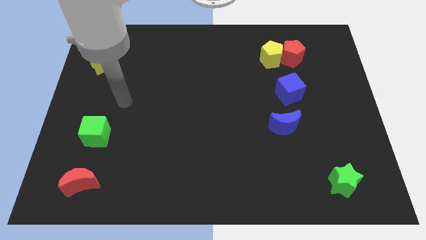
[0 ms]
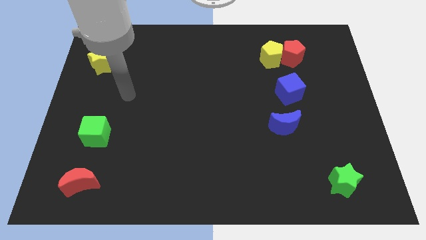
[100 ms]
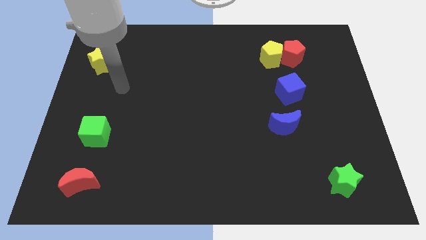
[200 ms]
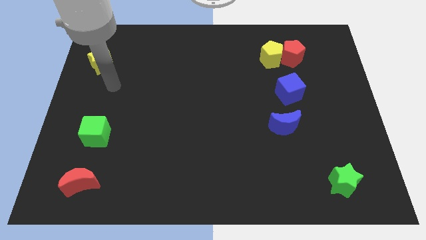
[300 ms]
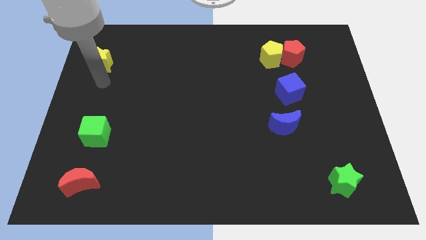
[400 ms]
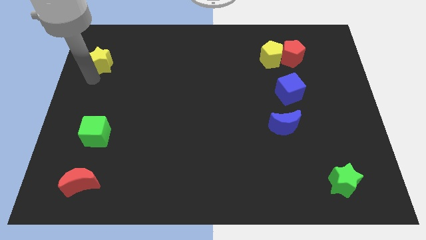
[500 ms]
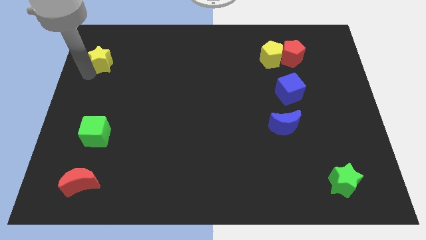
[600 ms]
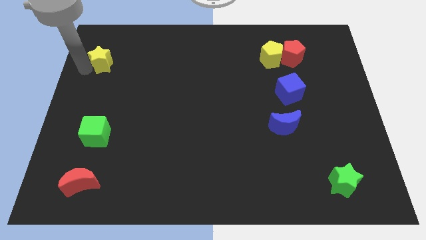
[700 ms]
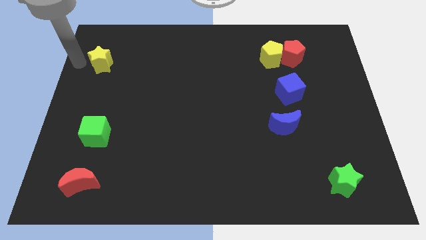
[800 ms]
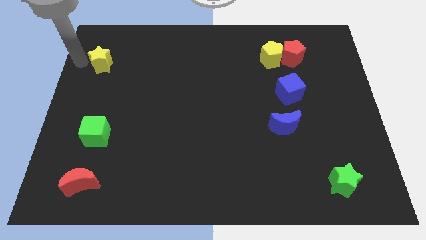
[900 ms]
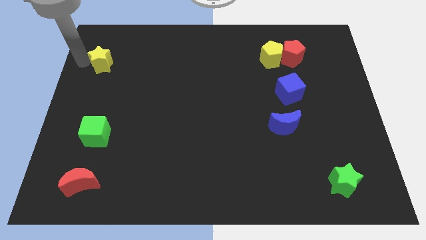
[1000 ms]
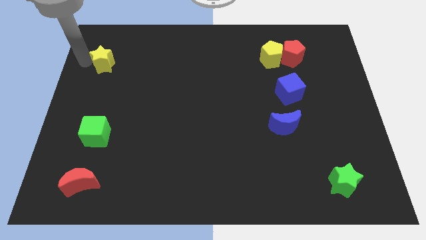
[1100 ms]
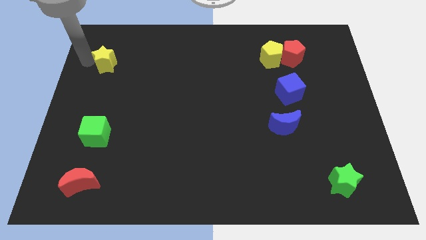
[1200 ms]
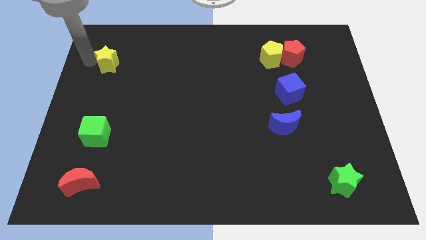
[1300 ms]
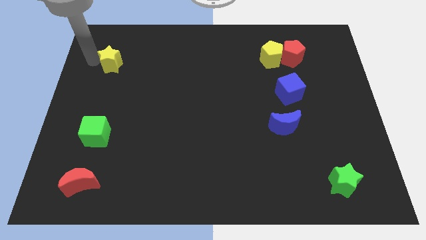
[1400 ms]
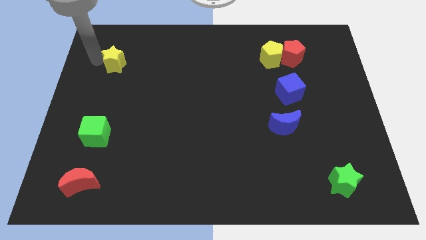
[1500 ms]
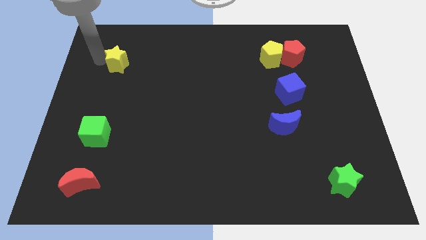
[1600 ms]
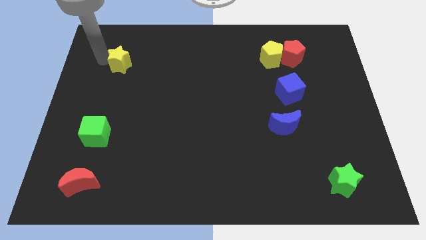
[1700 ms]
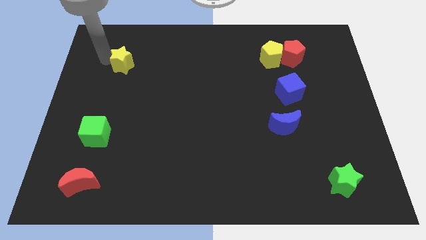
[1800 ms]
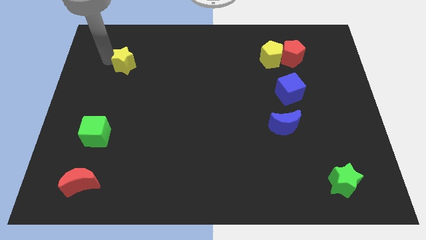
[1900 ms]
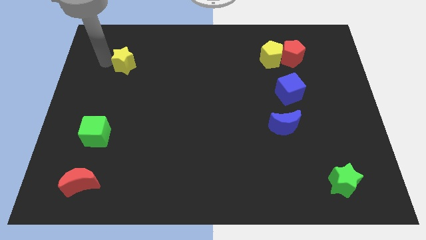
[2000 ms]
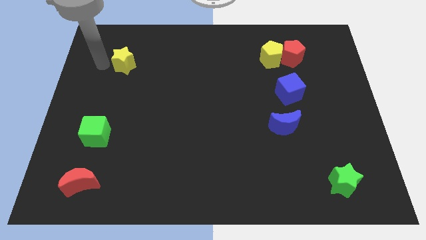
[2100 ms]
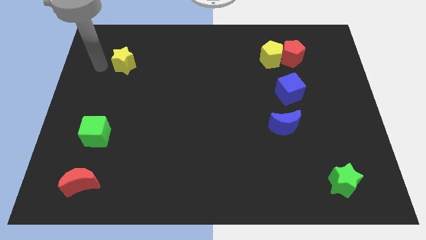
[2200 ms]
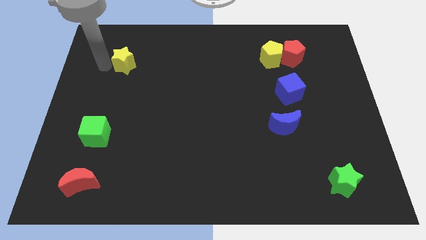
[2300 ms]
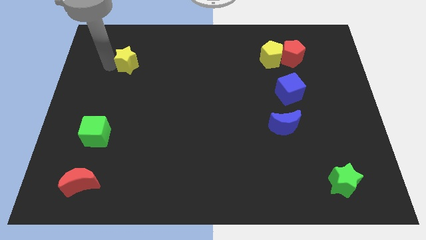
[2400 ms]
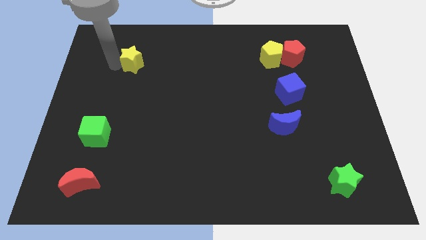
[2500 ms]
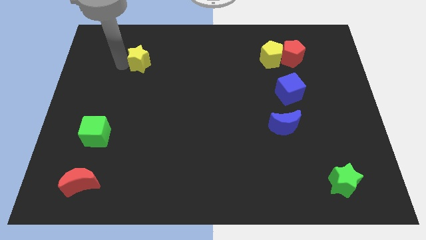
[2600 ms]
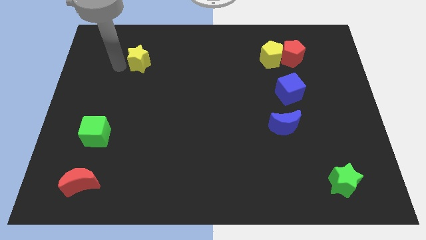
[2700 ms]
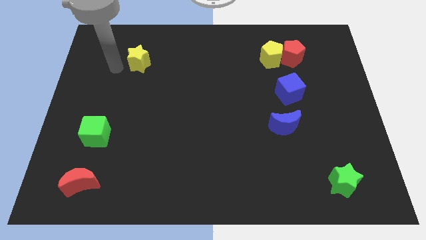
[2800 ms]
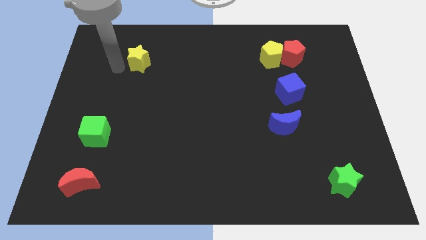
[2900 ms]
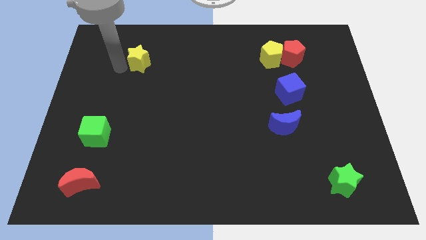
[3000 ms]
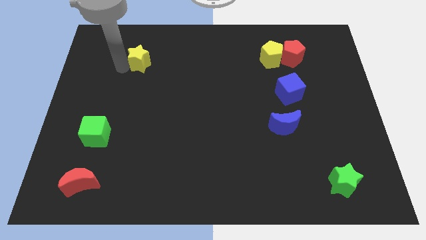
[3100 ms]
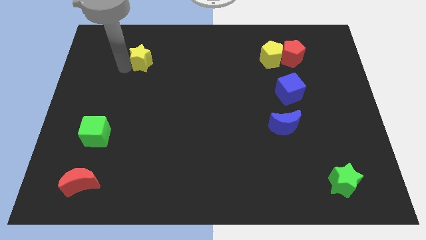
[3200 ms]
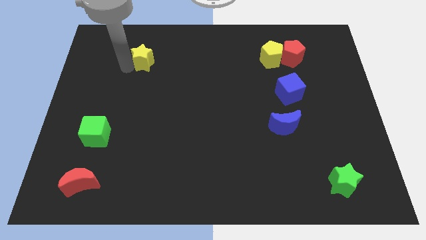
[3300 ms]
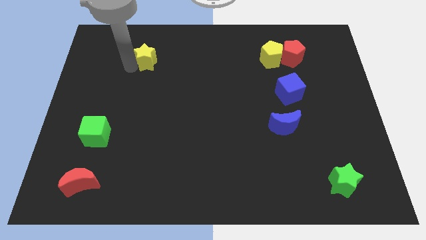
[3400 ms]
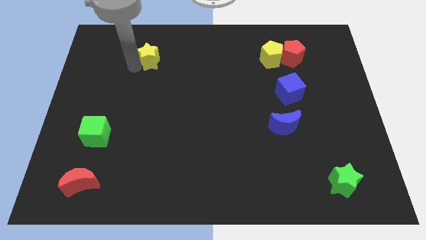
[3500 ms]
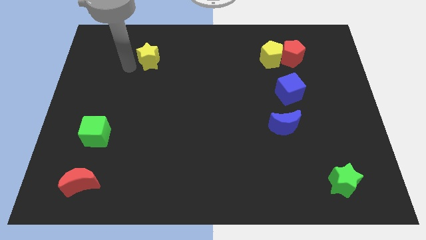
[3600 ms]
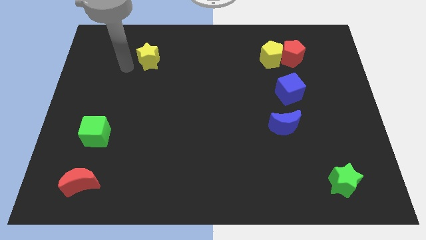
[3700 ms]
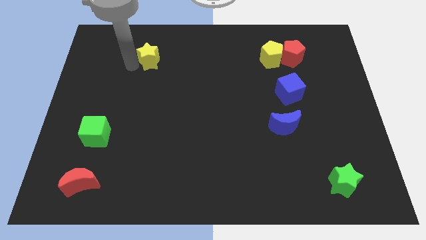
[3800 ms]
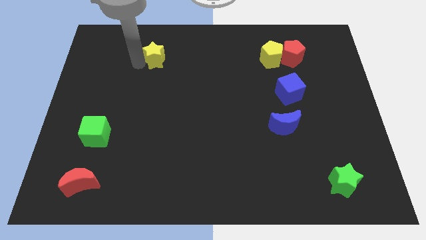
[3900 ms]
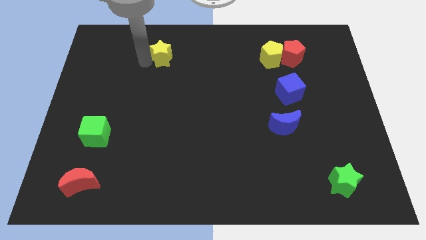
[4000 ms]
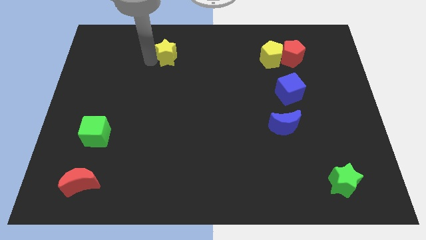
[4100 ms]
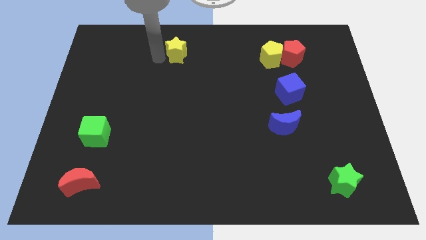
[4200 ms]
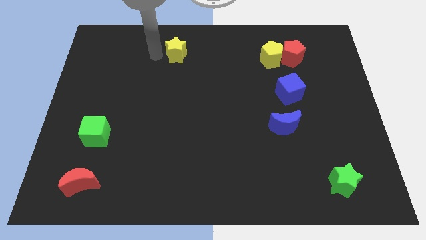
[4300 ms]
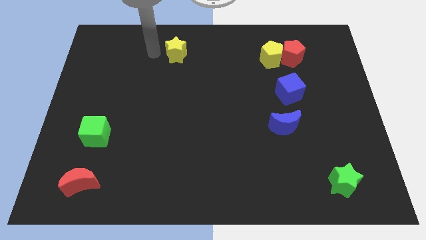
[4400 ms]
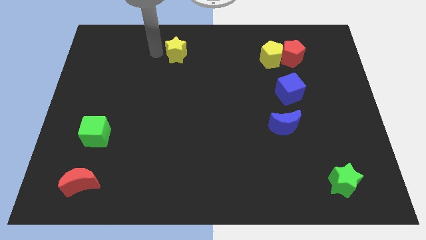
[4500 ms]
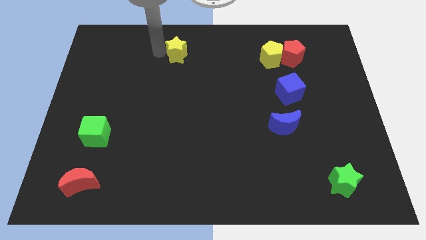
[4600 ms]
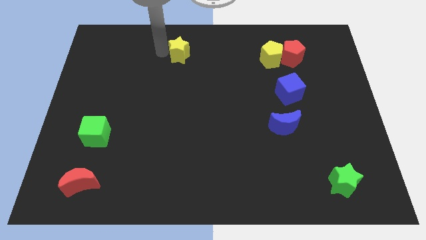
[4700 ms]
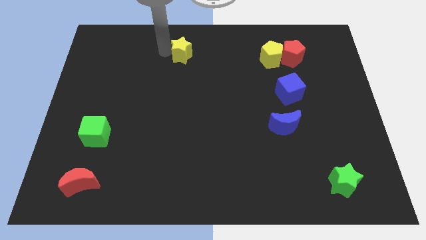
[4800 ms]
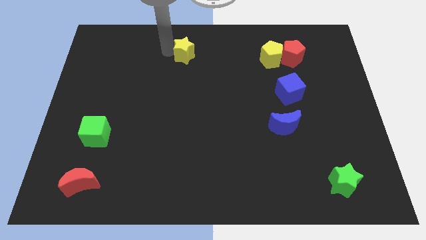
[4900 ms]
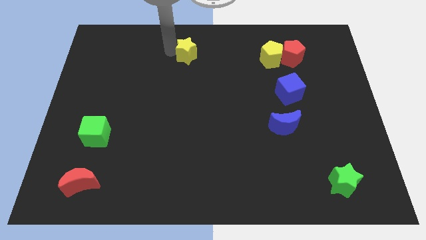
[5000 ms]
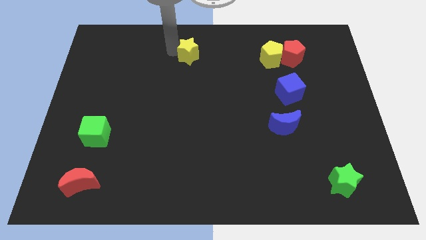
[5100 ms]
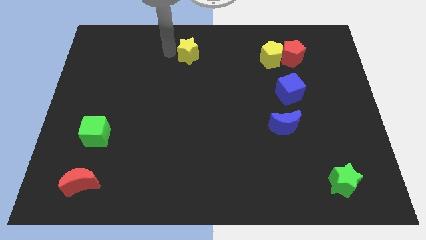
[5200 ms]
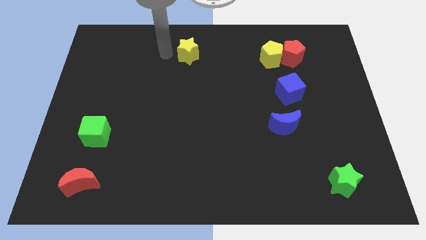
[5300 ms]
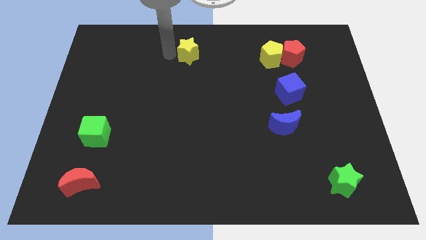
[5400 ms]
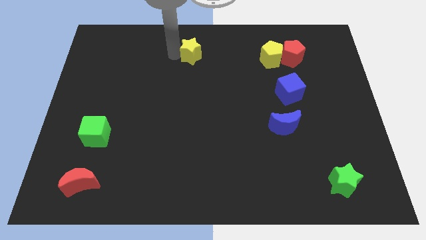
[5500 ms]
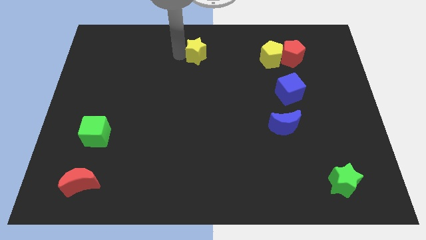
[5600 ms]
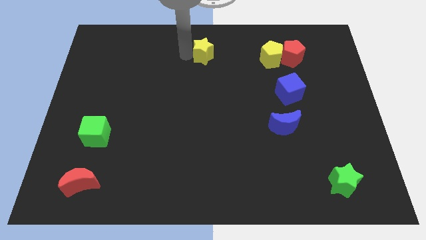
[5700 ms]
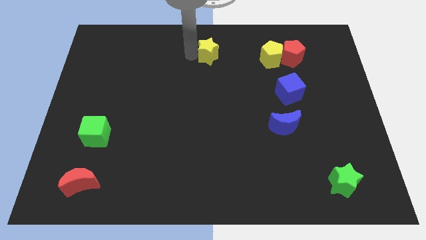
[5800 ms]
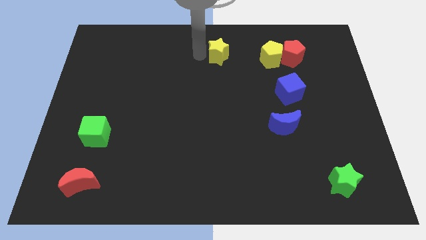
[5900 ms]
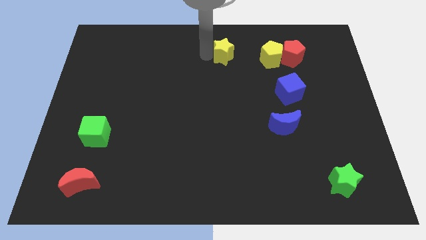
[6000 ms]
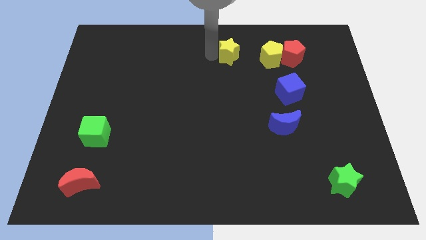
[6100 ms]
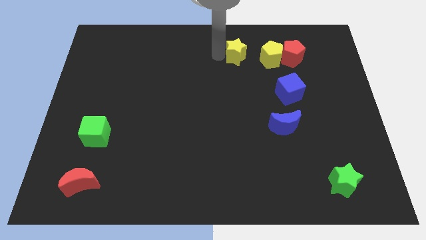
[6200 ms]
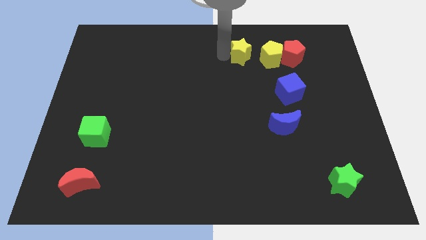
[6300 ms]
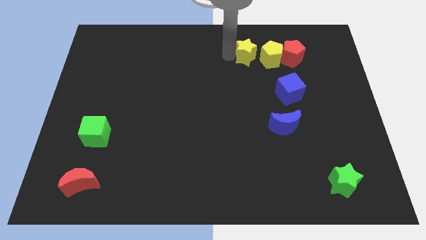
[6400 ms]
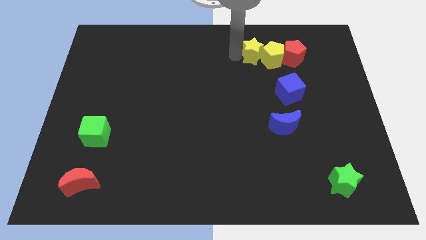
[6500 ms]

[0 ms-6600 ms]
slide the yellow star to the yellow pentagon

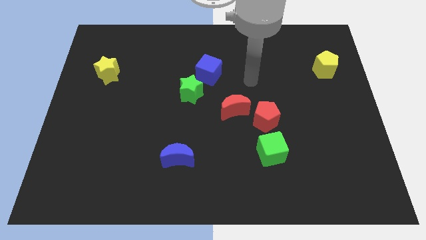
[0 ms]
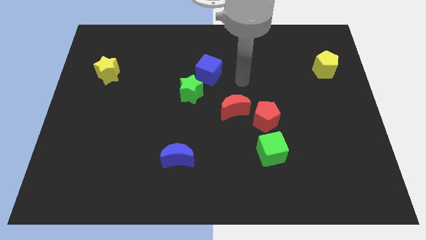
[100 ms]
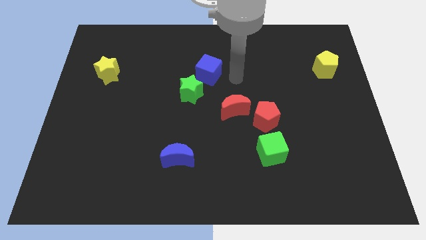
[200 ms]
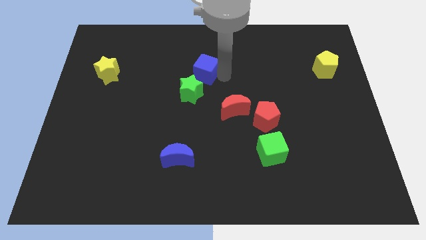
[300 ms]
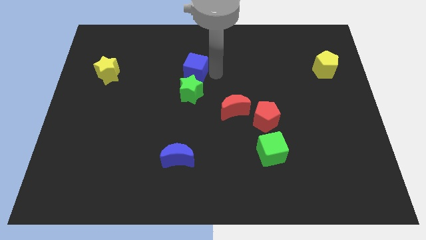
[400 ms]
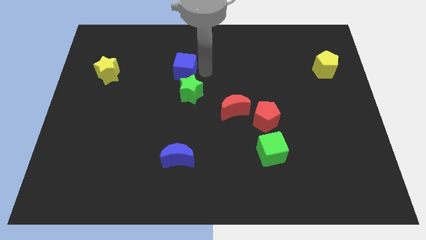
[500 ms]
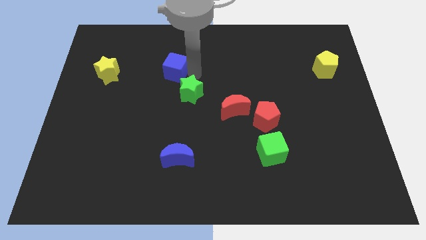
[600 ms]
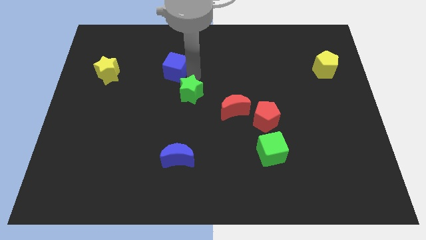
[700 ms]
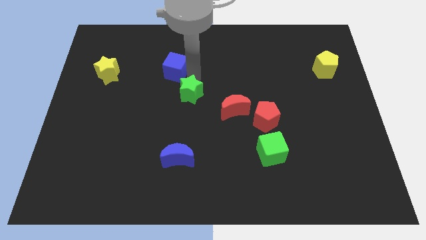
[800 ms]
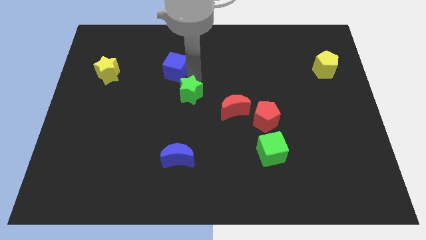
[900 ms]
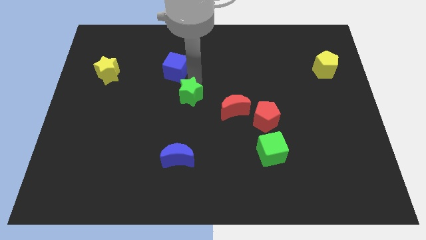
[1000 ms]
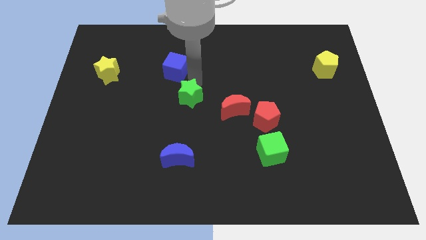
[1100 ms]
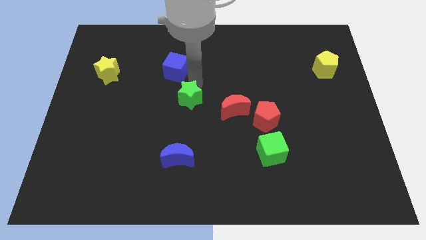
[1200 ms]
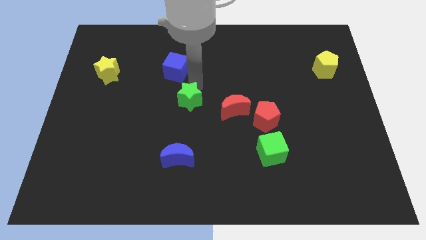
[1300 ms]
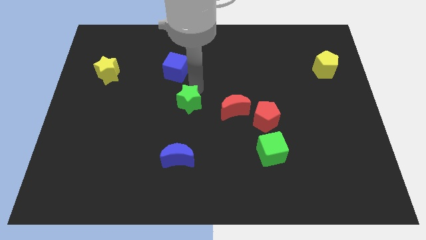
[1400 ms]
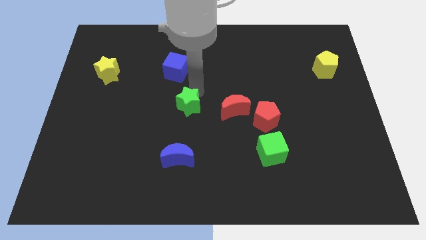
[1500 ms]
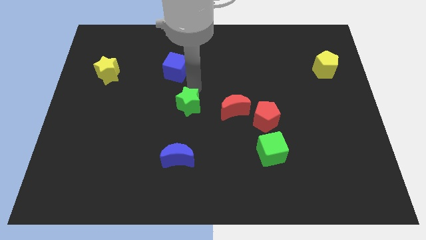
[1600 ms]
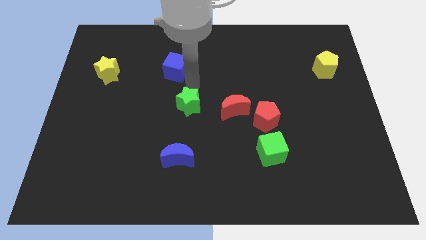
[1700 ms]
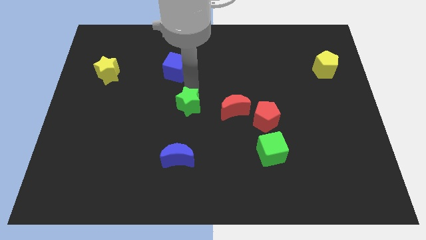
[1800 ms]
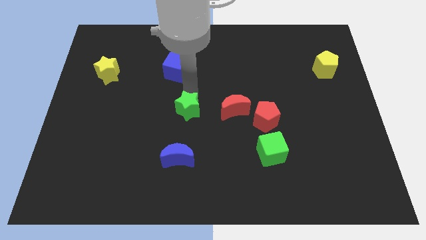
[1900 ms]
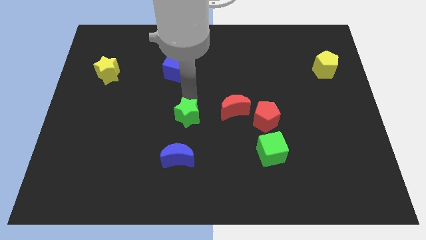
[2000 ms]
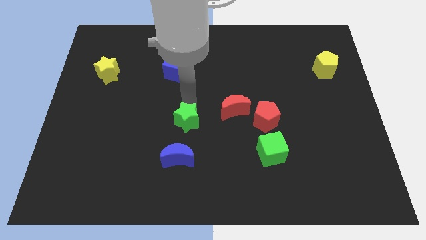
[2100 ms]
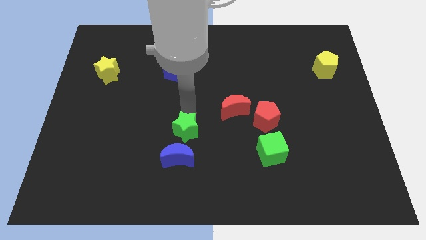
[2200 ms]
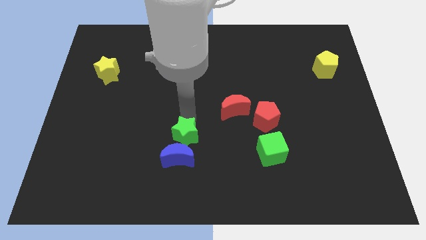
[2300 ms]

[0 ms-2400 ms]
slide the green star towards the blue moon
